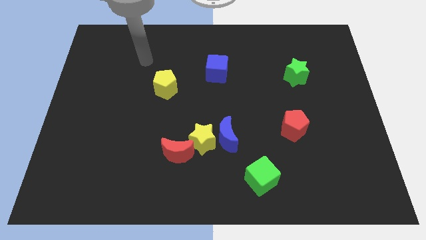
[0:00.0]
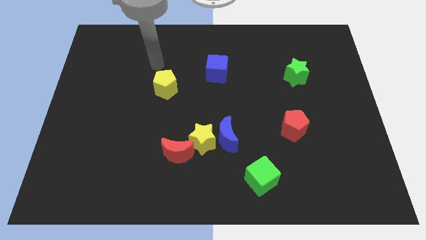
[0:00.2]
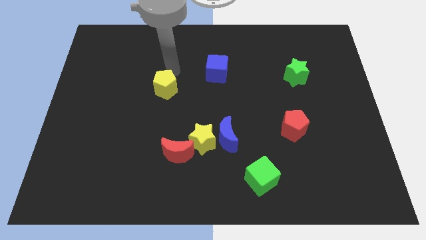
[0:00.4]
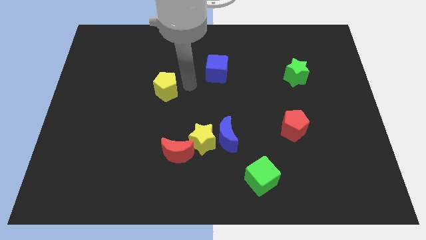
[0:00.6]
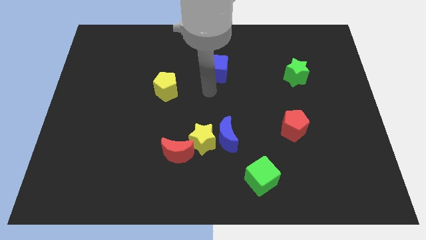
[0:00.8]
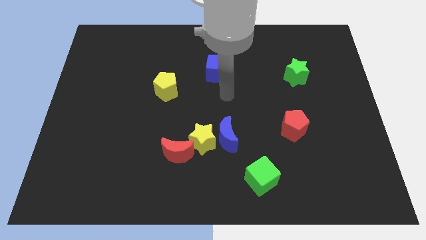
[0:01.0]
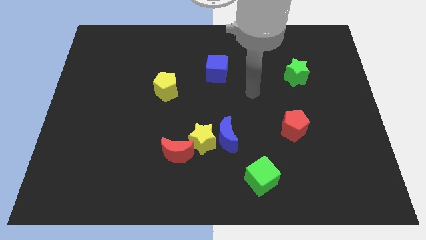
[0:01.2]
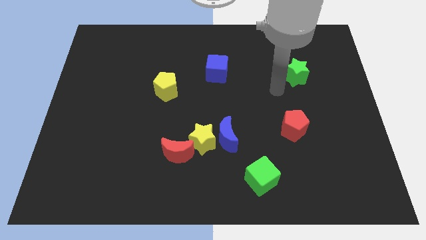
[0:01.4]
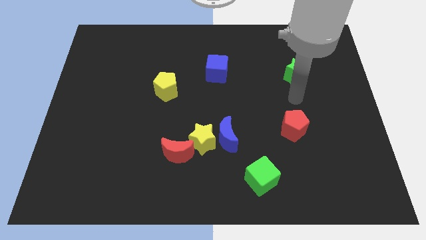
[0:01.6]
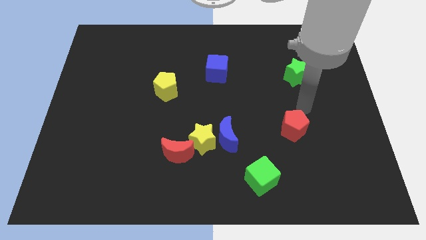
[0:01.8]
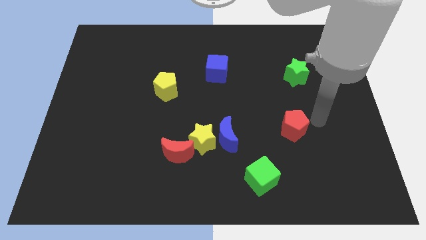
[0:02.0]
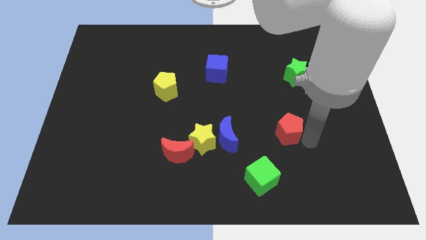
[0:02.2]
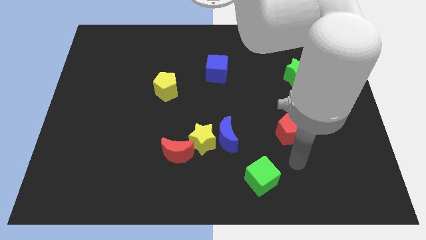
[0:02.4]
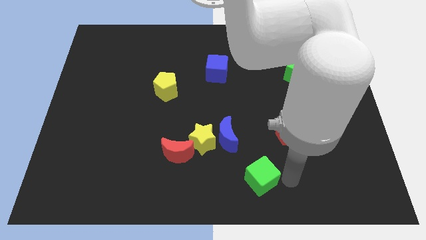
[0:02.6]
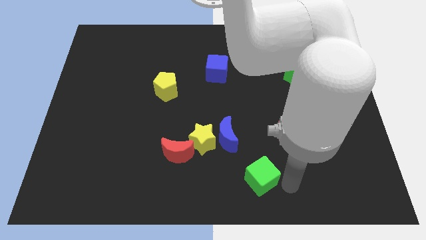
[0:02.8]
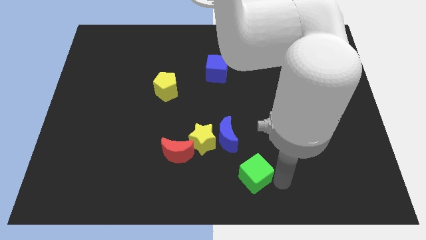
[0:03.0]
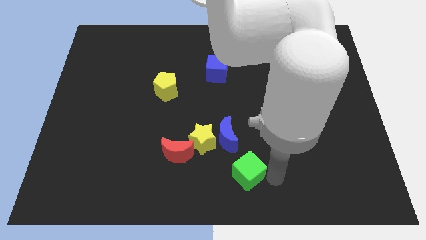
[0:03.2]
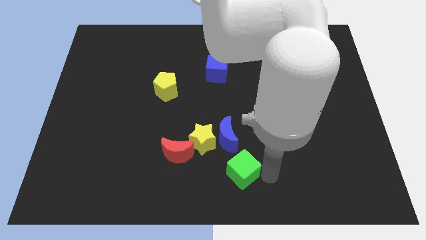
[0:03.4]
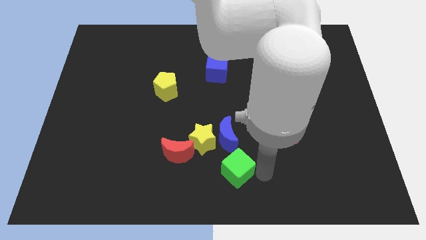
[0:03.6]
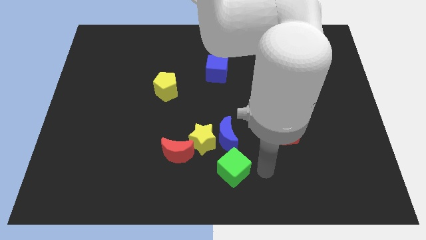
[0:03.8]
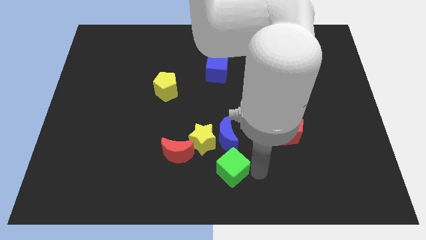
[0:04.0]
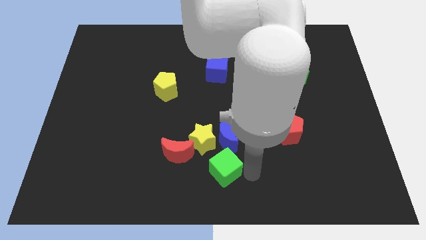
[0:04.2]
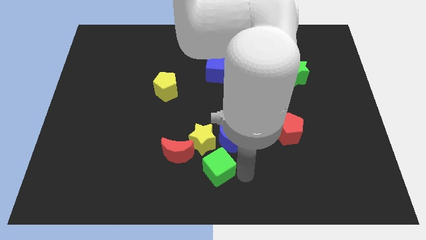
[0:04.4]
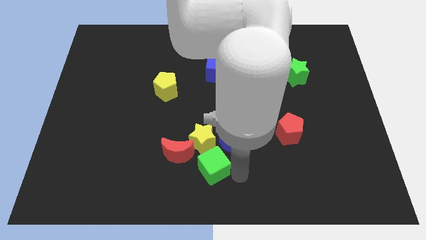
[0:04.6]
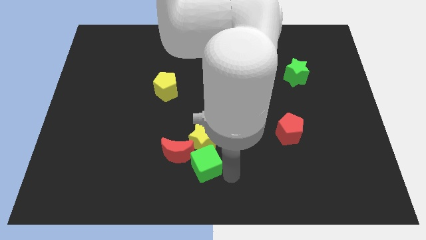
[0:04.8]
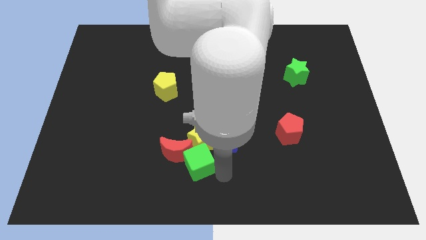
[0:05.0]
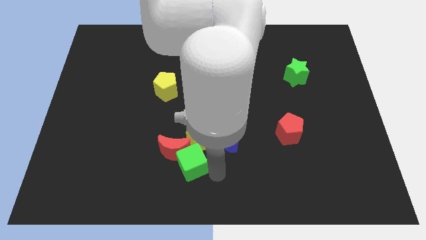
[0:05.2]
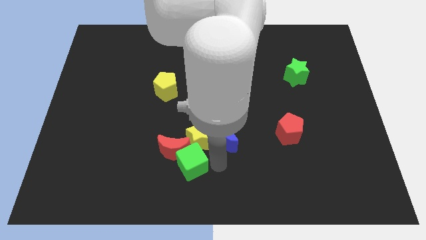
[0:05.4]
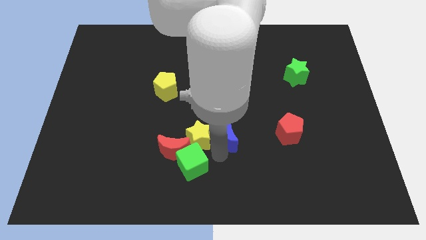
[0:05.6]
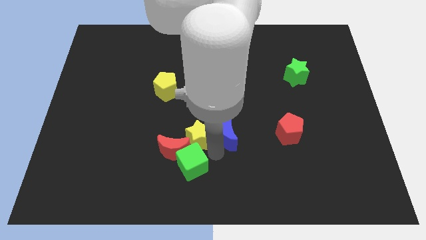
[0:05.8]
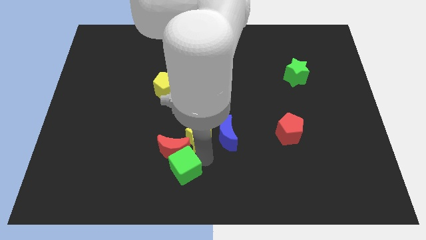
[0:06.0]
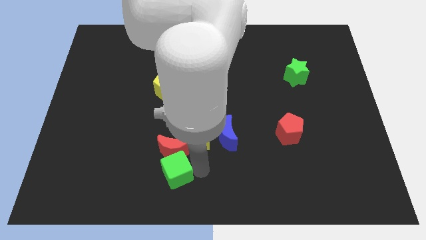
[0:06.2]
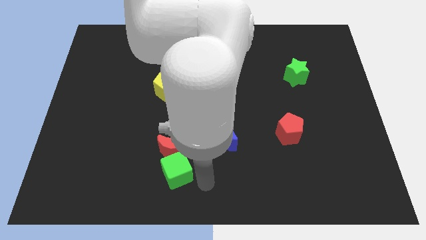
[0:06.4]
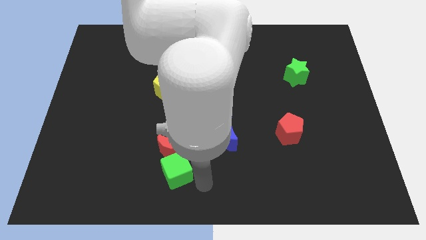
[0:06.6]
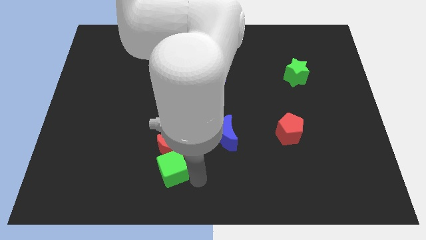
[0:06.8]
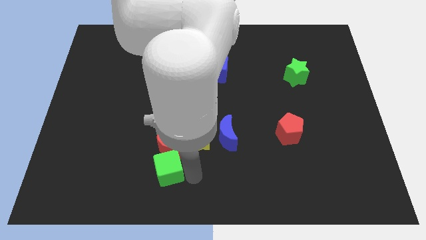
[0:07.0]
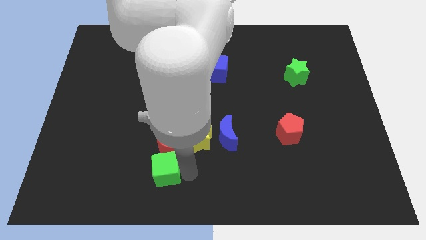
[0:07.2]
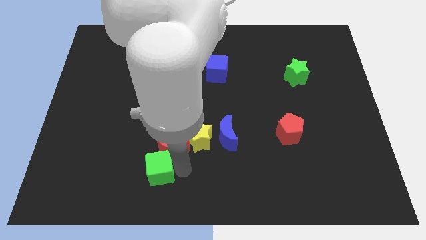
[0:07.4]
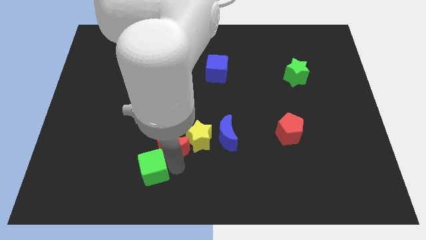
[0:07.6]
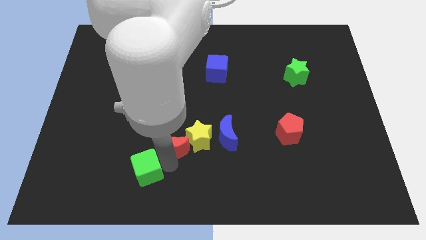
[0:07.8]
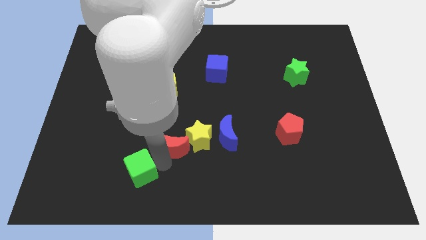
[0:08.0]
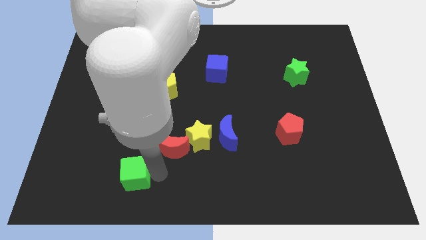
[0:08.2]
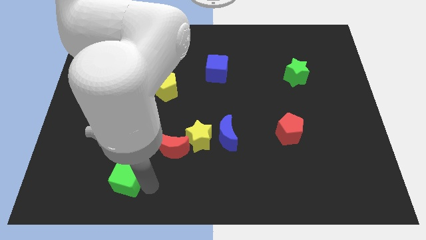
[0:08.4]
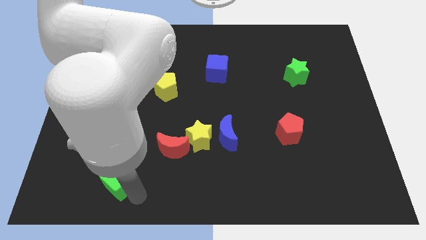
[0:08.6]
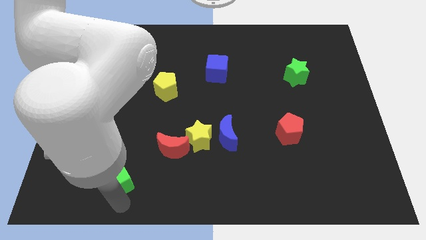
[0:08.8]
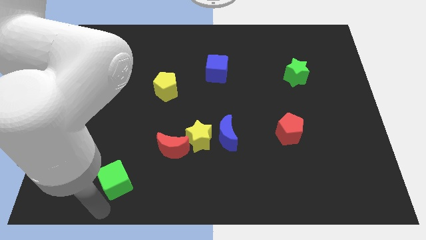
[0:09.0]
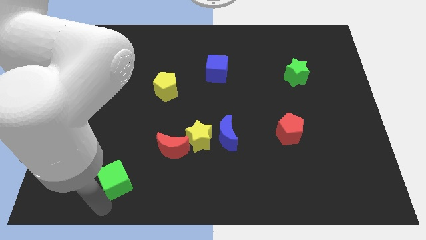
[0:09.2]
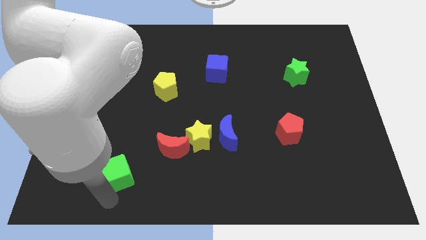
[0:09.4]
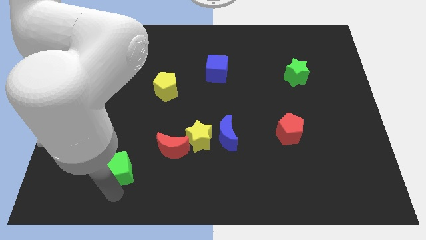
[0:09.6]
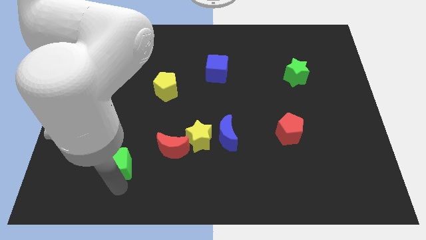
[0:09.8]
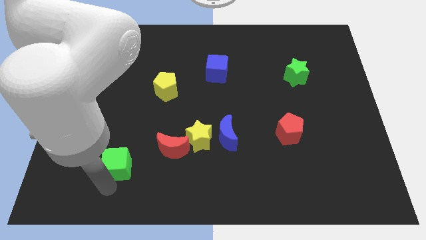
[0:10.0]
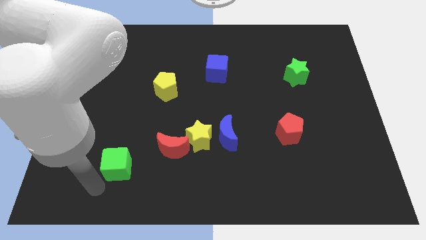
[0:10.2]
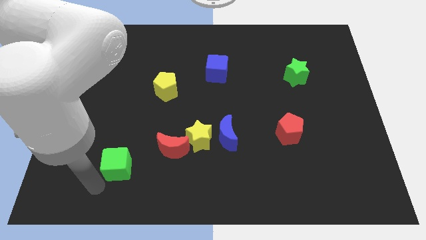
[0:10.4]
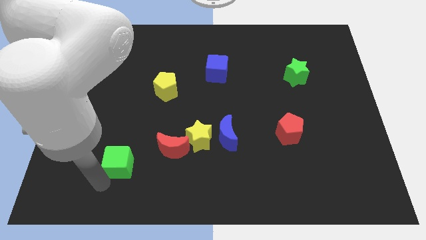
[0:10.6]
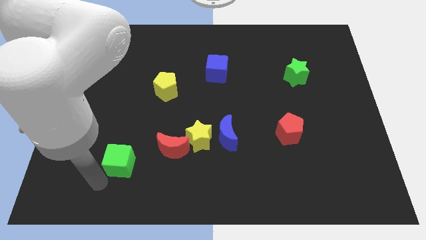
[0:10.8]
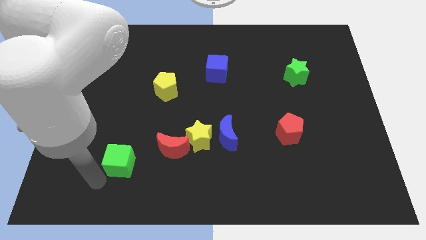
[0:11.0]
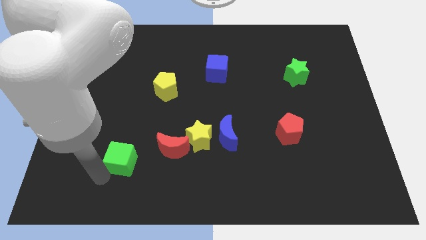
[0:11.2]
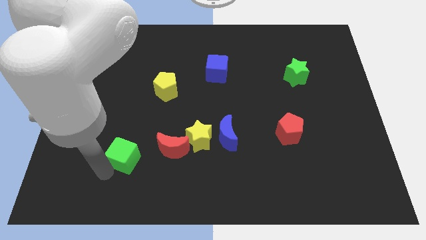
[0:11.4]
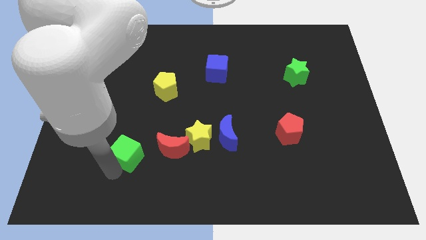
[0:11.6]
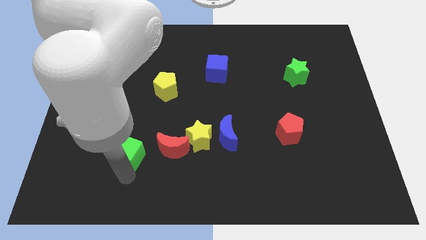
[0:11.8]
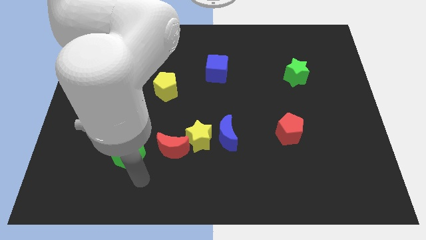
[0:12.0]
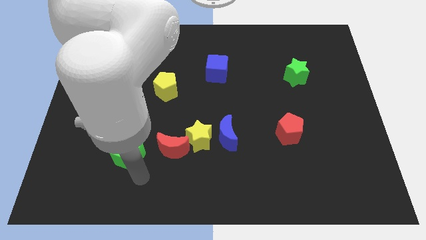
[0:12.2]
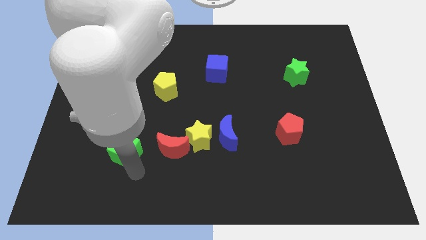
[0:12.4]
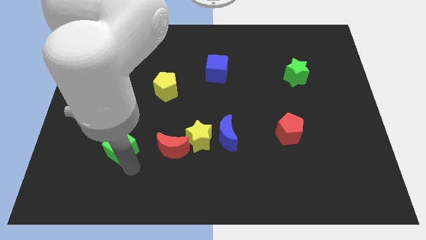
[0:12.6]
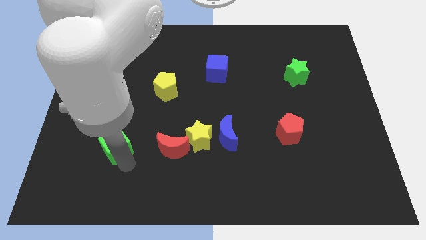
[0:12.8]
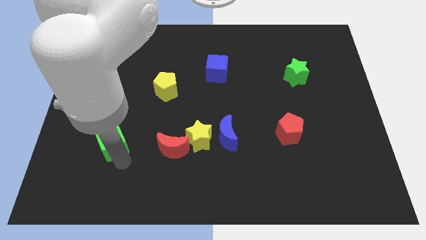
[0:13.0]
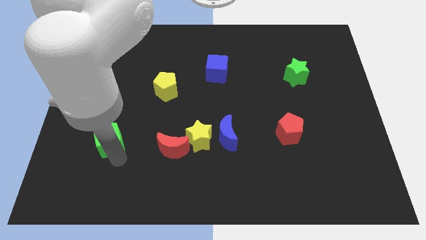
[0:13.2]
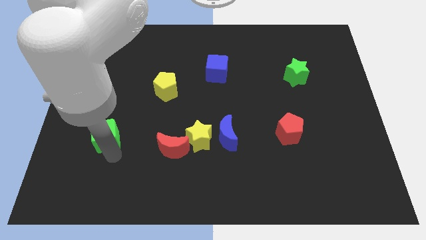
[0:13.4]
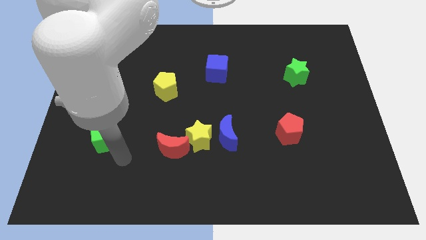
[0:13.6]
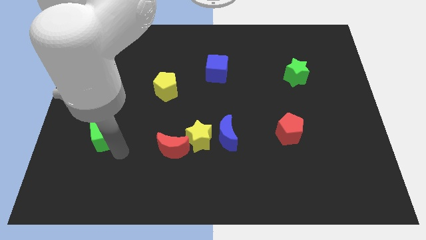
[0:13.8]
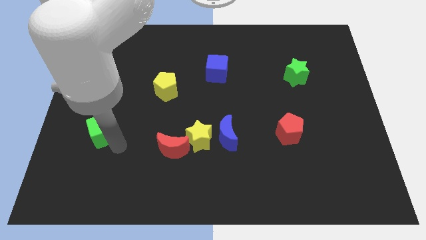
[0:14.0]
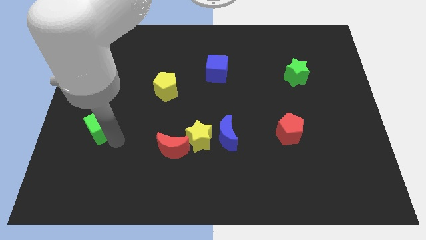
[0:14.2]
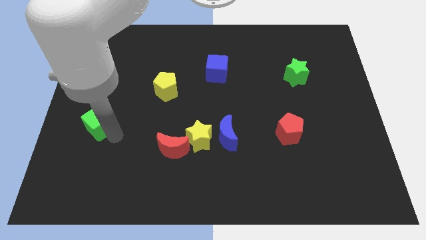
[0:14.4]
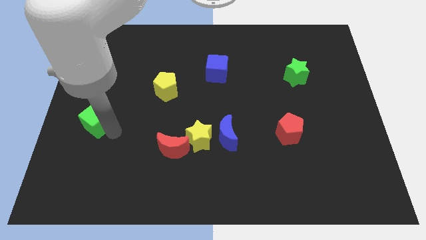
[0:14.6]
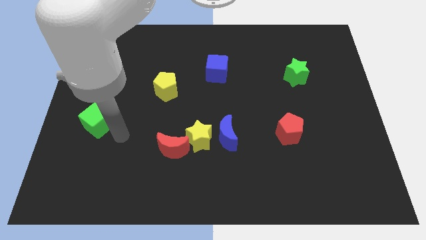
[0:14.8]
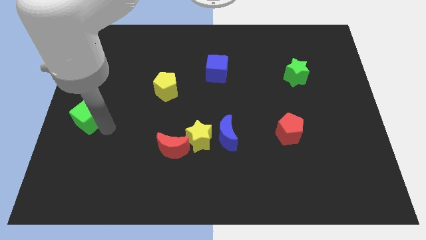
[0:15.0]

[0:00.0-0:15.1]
slide the green cube to the left side of the board
